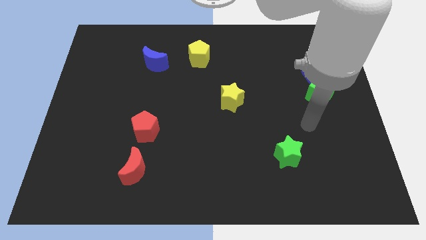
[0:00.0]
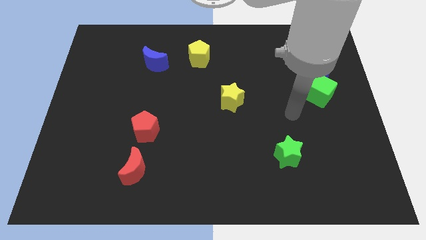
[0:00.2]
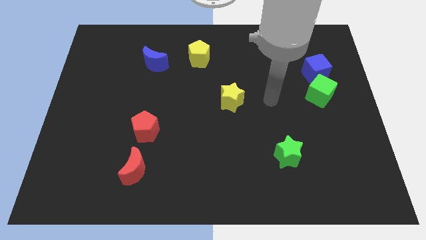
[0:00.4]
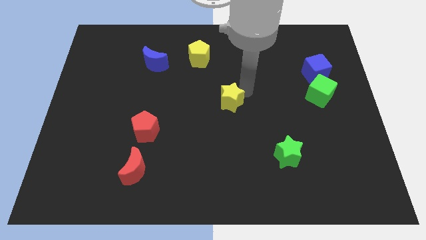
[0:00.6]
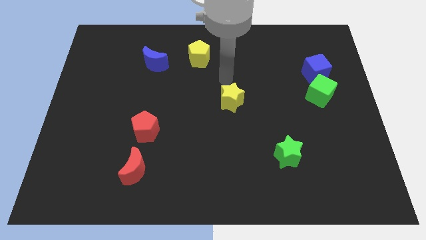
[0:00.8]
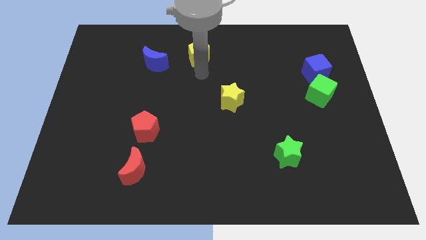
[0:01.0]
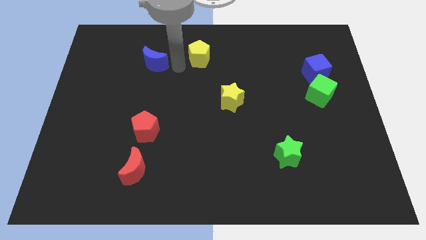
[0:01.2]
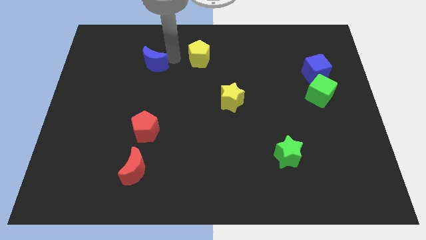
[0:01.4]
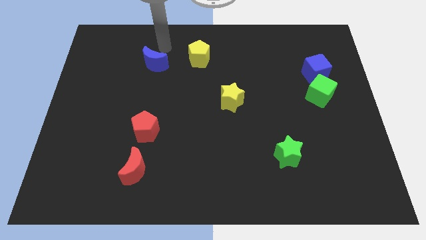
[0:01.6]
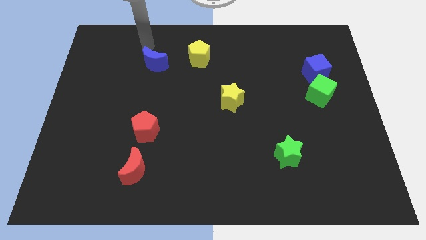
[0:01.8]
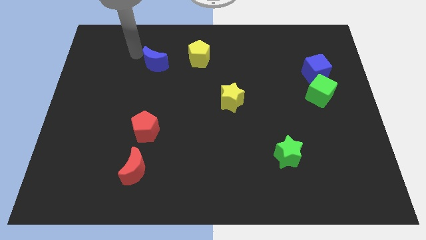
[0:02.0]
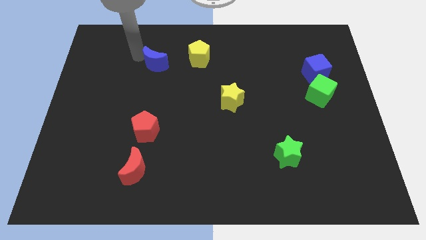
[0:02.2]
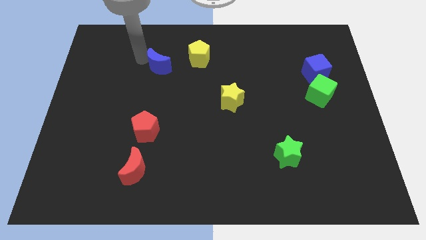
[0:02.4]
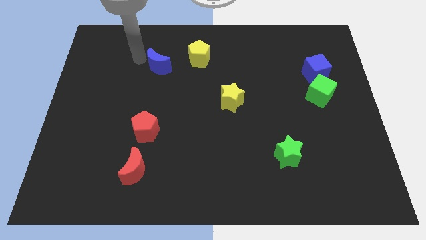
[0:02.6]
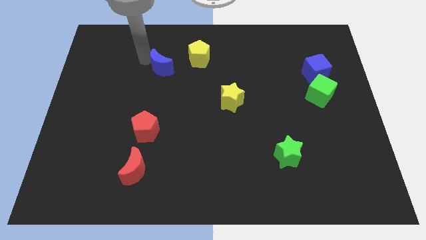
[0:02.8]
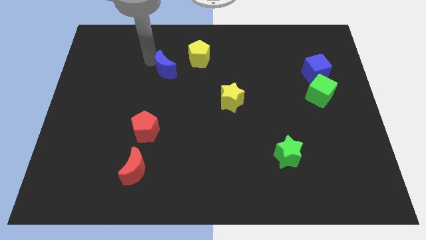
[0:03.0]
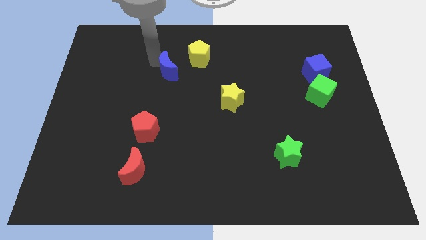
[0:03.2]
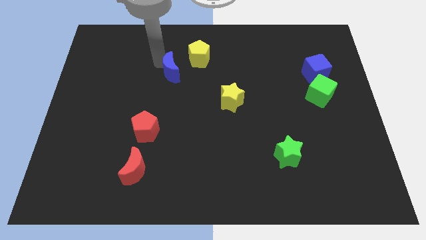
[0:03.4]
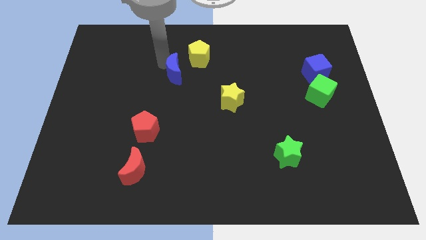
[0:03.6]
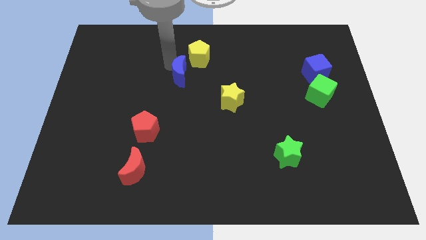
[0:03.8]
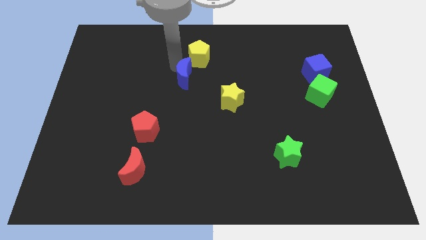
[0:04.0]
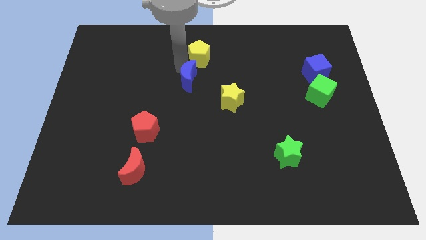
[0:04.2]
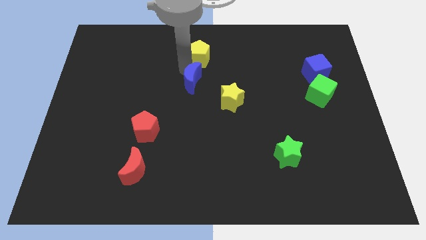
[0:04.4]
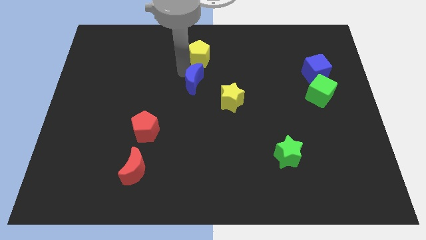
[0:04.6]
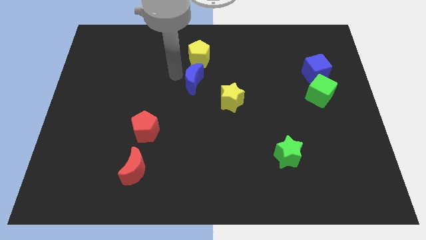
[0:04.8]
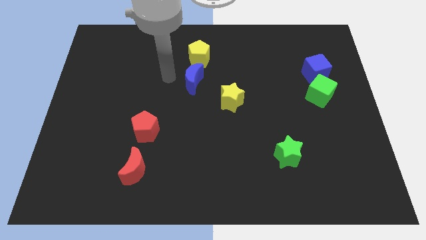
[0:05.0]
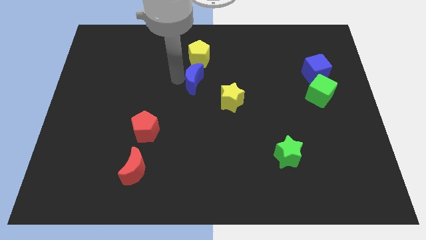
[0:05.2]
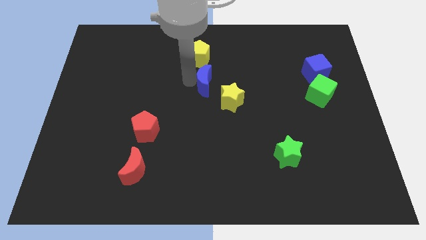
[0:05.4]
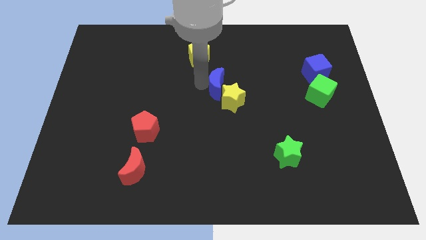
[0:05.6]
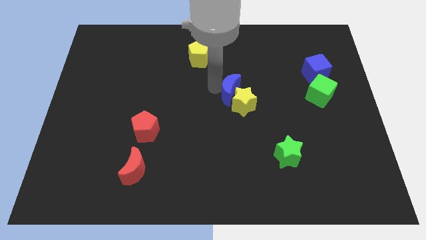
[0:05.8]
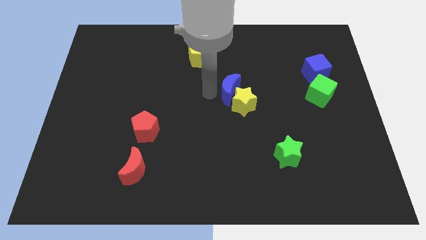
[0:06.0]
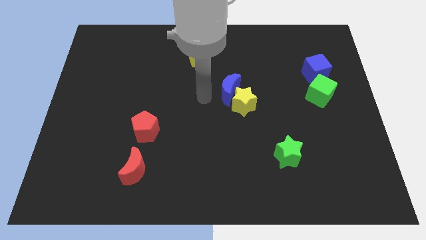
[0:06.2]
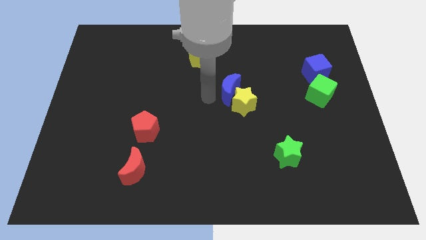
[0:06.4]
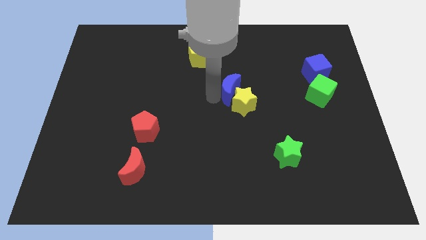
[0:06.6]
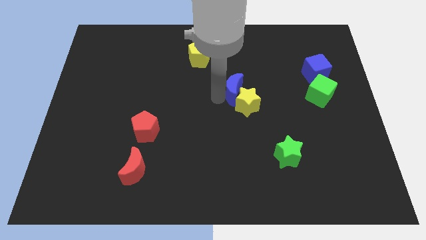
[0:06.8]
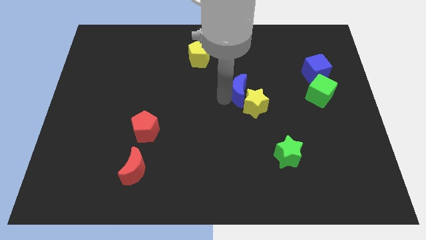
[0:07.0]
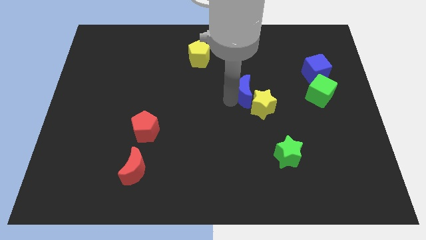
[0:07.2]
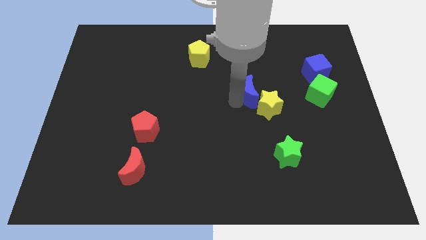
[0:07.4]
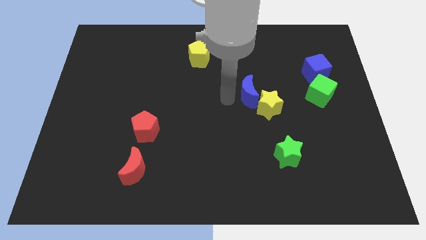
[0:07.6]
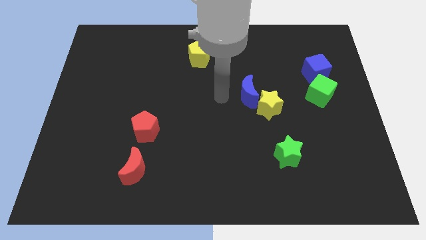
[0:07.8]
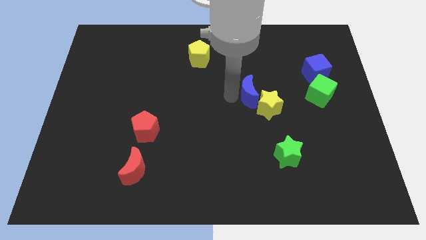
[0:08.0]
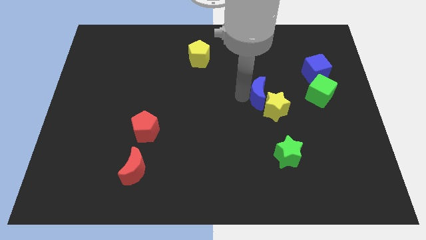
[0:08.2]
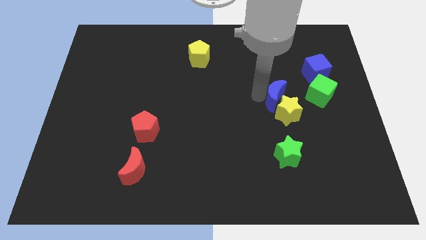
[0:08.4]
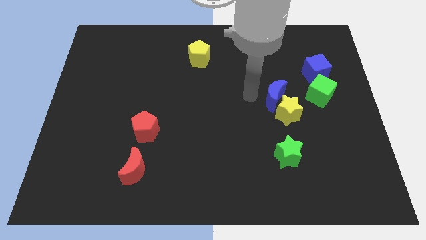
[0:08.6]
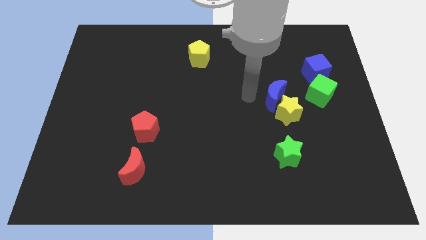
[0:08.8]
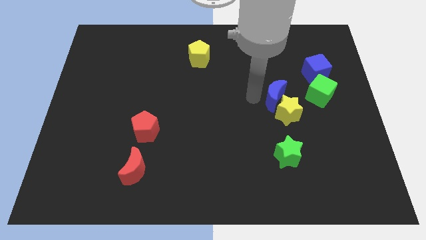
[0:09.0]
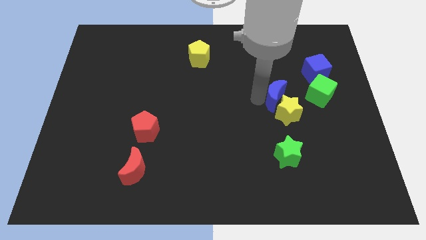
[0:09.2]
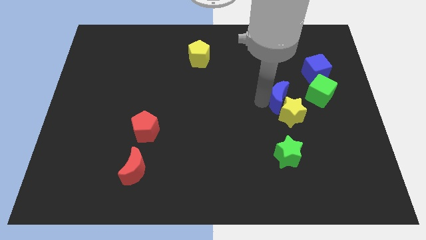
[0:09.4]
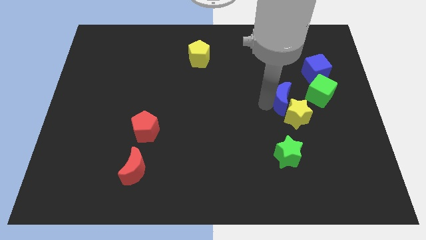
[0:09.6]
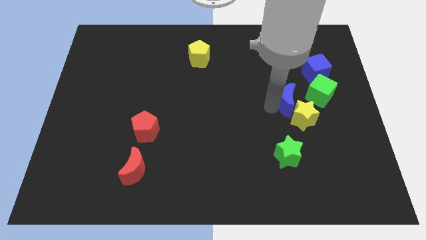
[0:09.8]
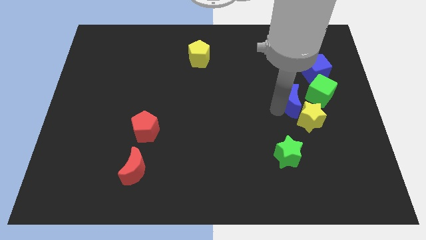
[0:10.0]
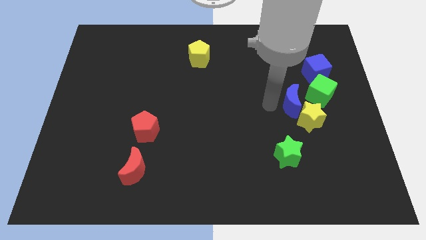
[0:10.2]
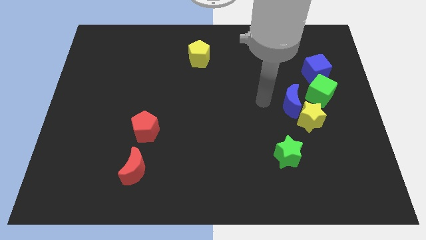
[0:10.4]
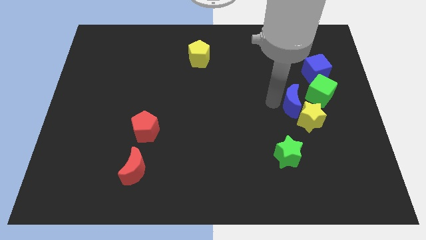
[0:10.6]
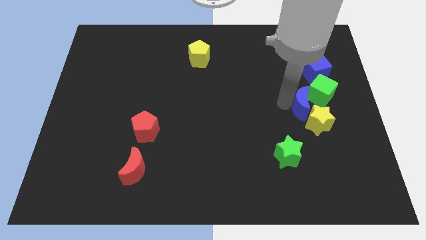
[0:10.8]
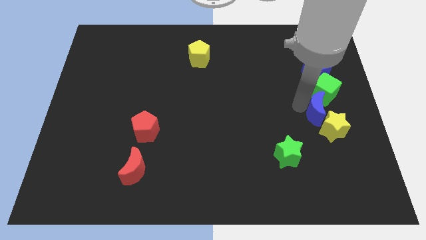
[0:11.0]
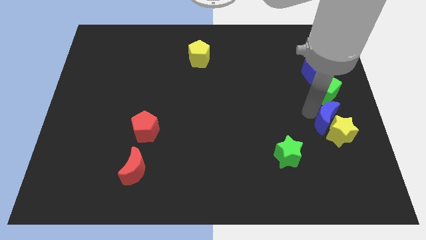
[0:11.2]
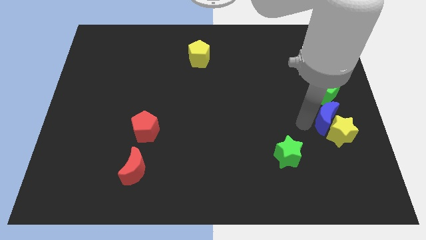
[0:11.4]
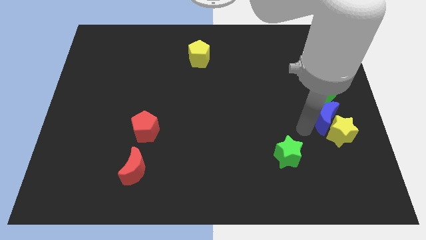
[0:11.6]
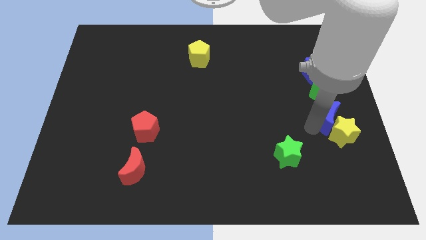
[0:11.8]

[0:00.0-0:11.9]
push the blue moon to the right side of the board
